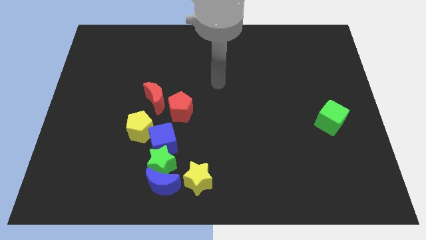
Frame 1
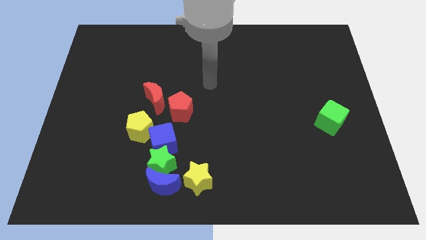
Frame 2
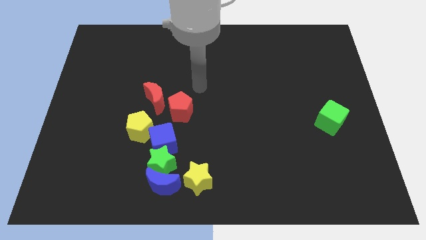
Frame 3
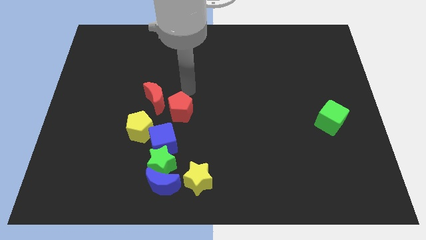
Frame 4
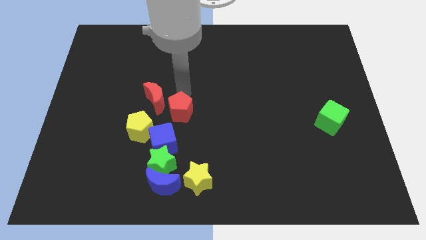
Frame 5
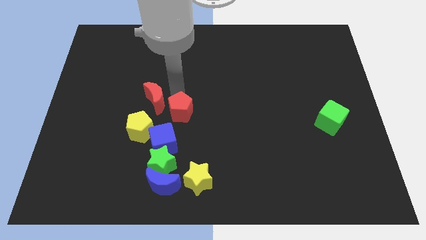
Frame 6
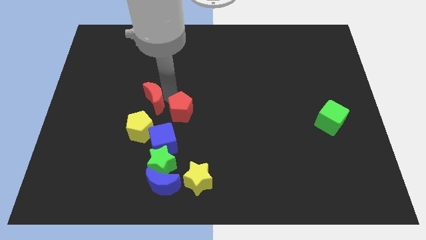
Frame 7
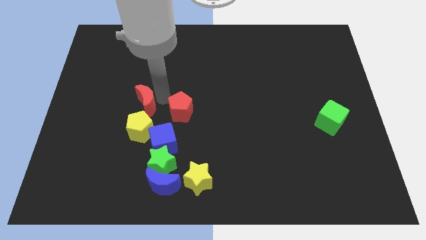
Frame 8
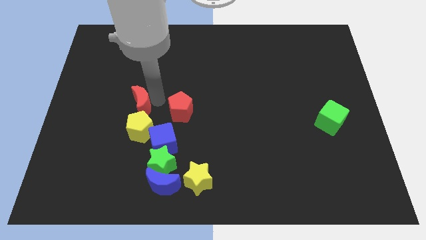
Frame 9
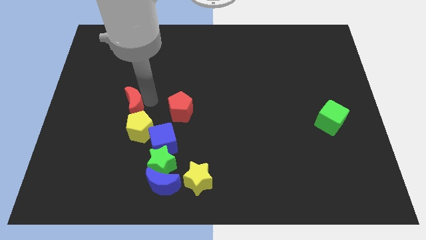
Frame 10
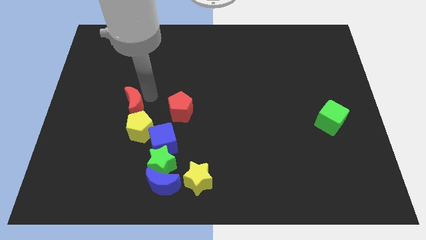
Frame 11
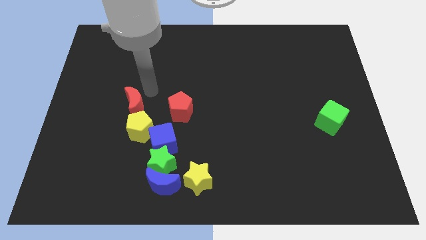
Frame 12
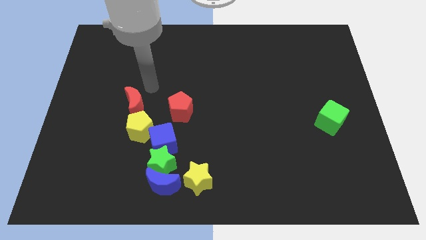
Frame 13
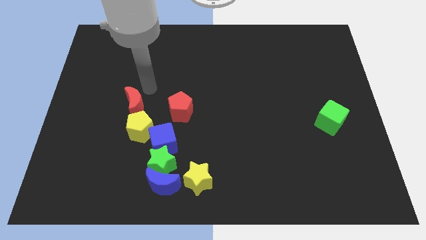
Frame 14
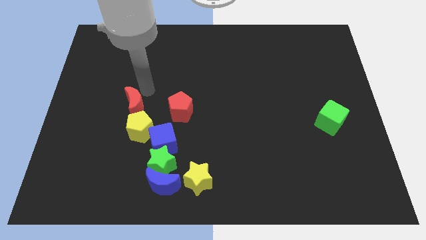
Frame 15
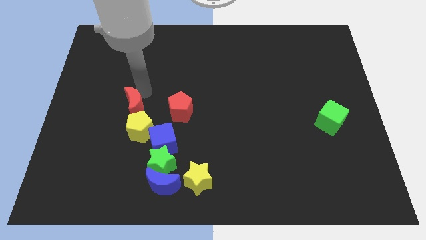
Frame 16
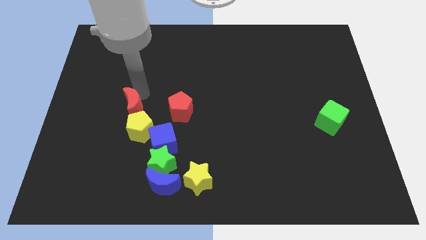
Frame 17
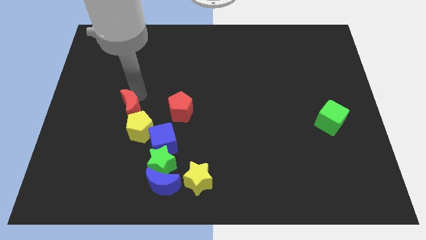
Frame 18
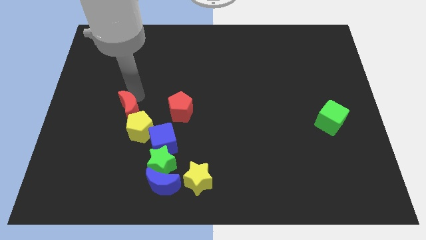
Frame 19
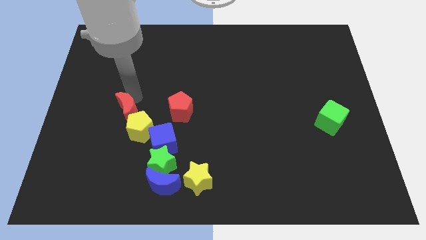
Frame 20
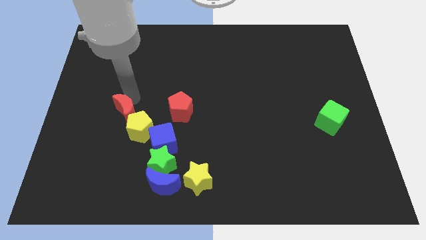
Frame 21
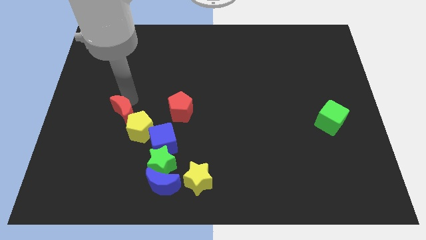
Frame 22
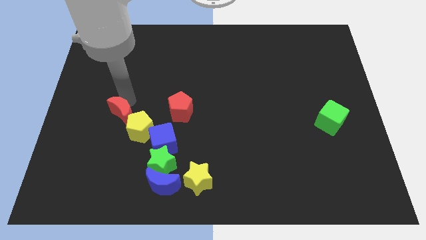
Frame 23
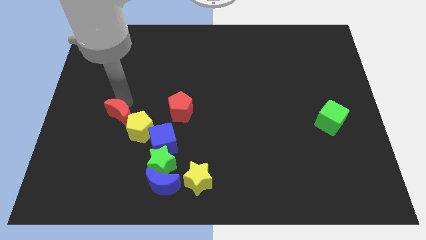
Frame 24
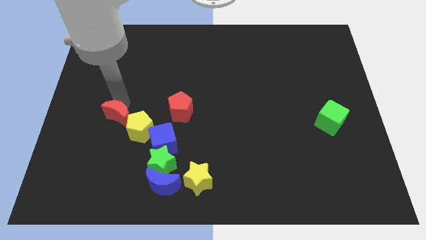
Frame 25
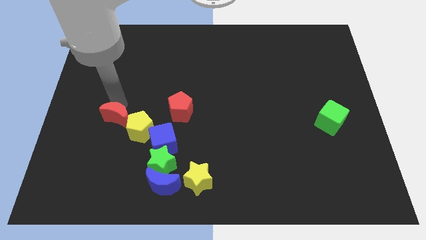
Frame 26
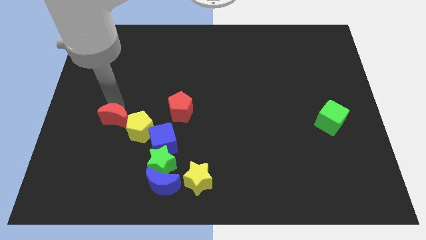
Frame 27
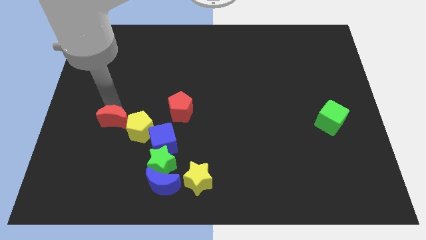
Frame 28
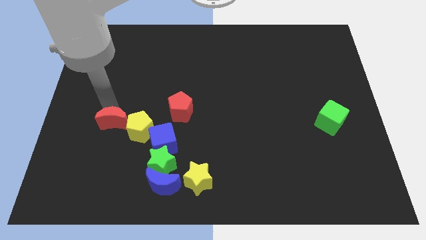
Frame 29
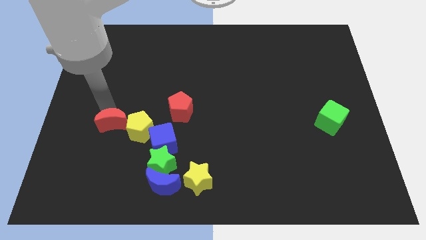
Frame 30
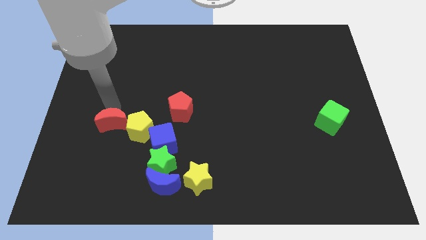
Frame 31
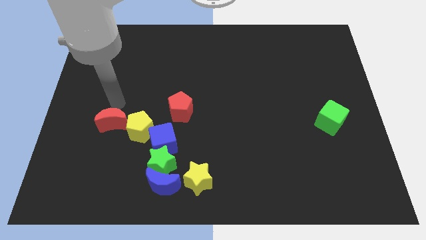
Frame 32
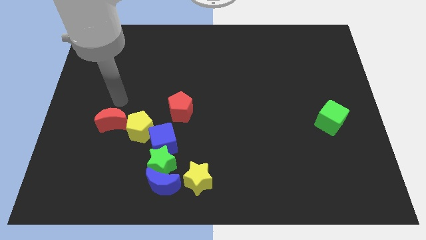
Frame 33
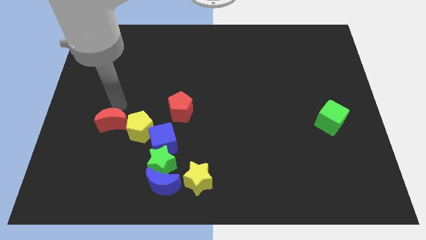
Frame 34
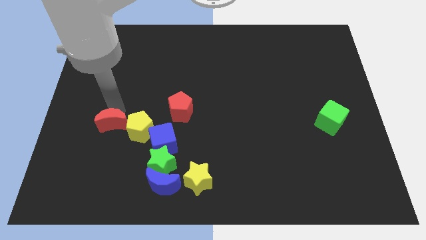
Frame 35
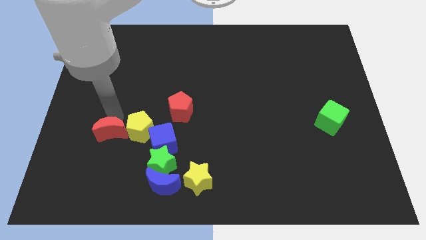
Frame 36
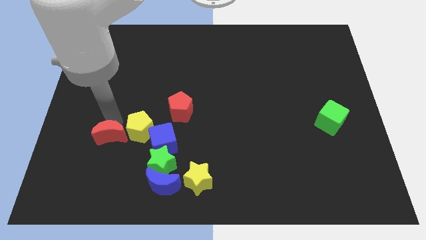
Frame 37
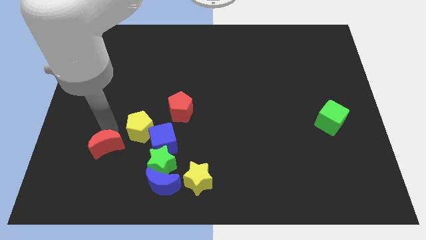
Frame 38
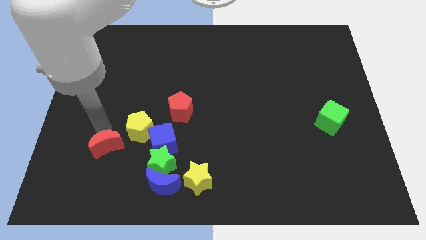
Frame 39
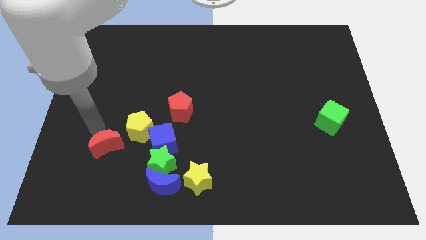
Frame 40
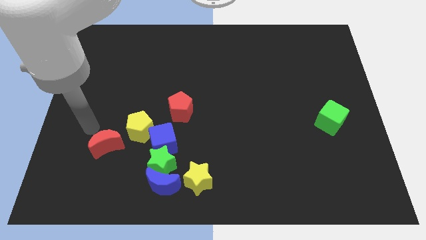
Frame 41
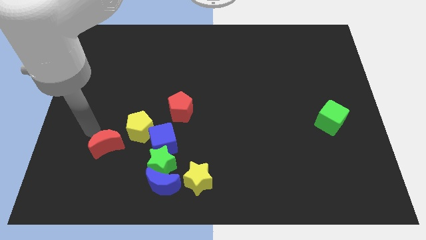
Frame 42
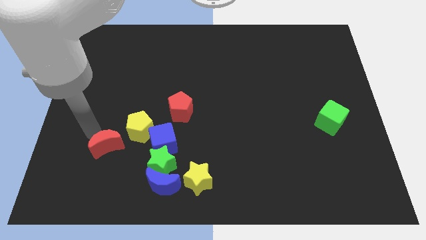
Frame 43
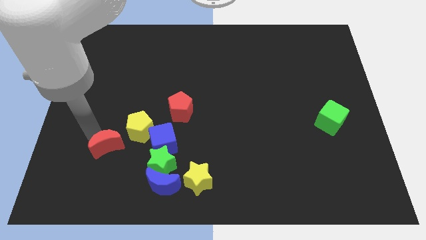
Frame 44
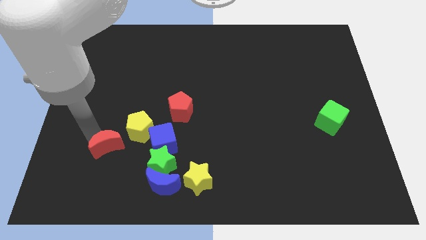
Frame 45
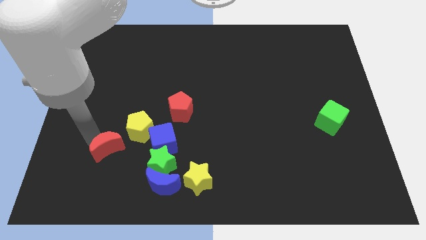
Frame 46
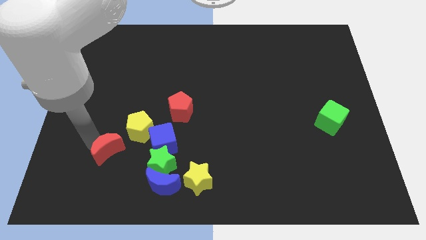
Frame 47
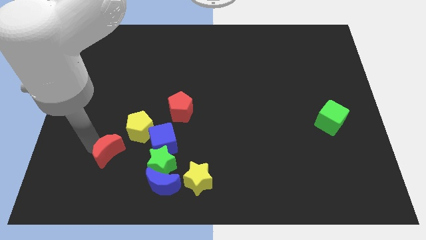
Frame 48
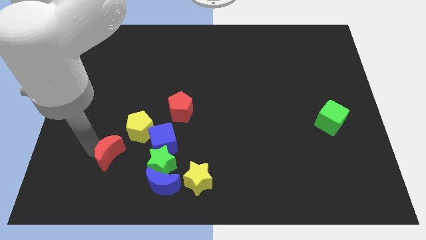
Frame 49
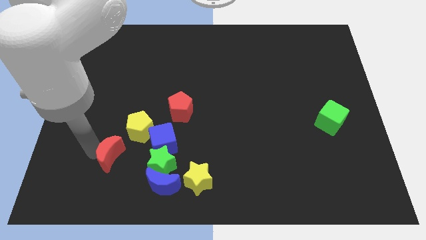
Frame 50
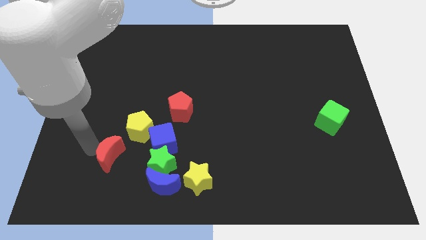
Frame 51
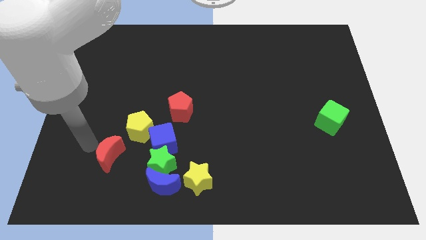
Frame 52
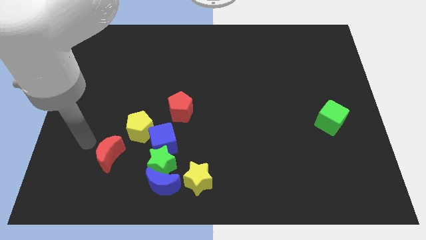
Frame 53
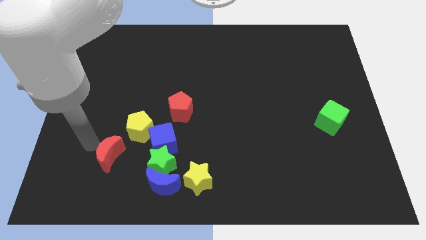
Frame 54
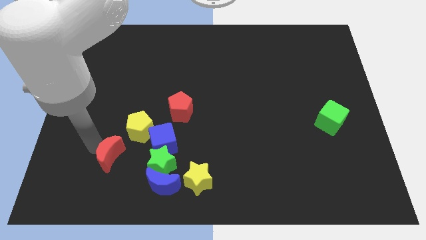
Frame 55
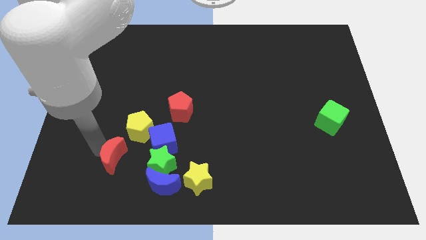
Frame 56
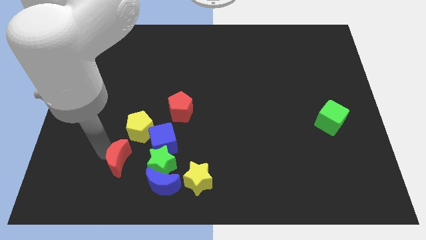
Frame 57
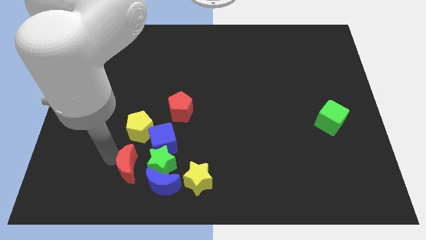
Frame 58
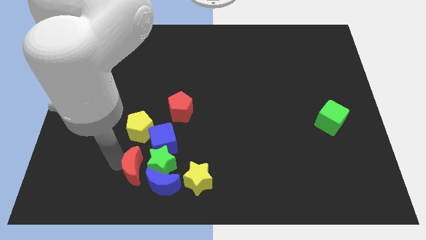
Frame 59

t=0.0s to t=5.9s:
move the red moon towards the green star

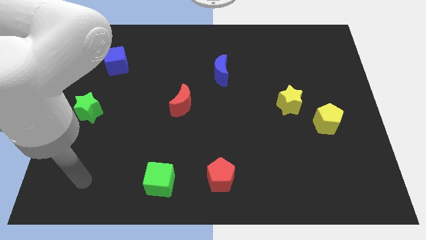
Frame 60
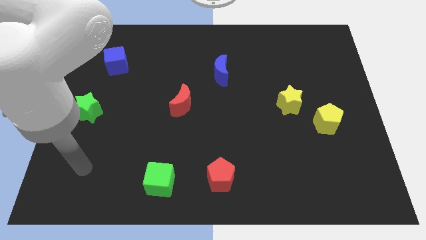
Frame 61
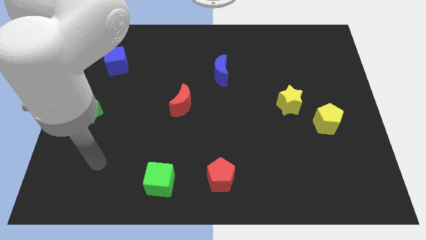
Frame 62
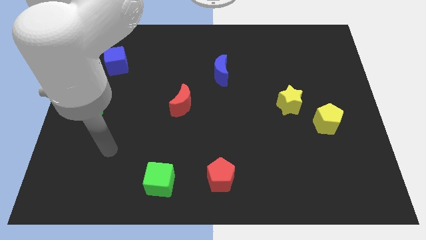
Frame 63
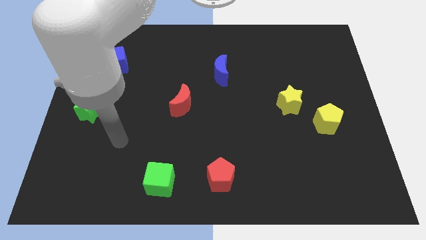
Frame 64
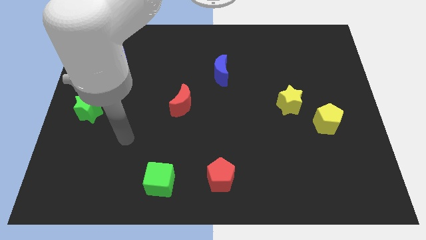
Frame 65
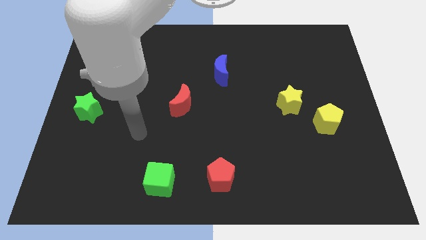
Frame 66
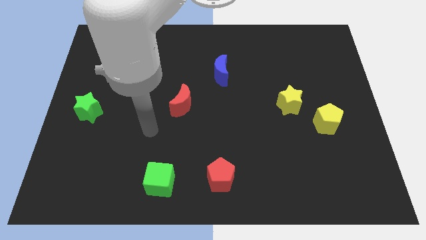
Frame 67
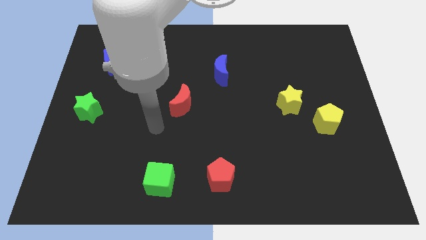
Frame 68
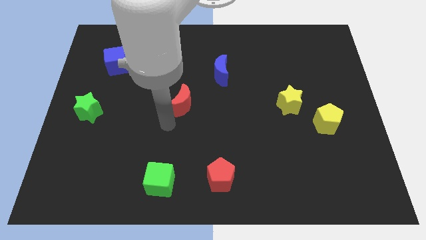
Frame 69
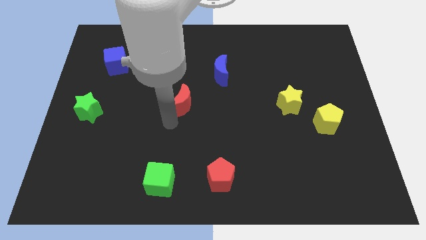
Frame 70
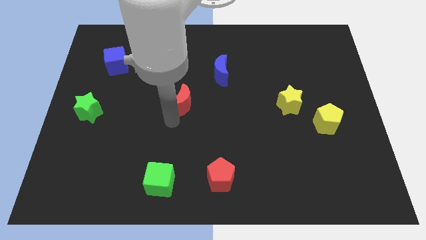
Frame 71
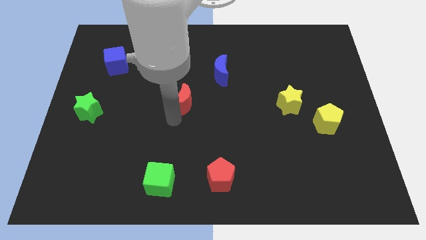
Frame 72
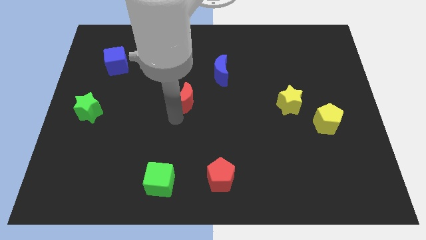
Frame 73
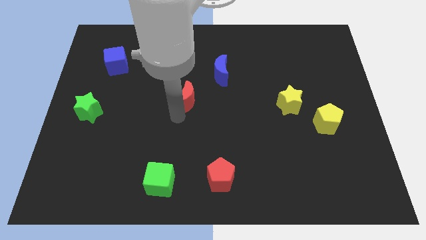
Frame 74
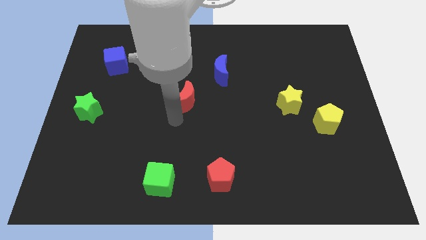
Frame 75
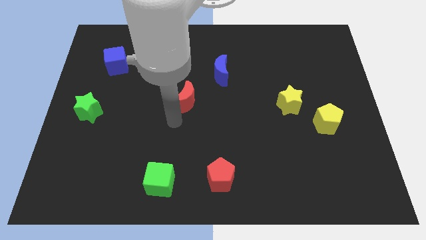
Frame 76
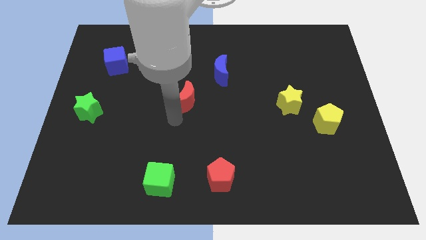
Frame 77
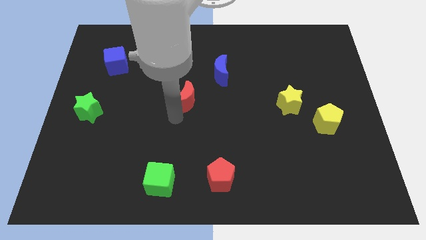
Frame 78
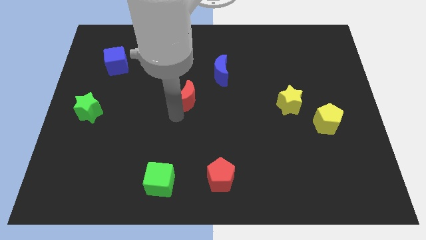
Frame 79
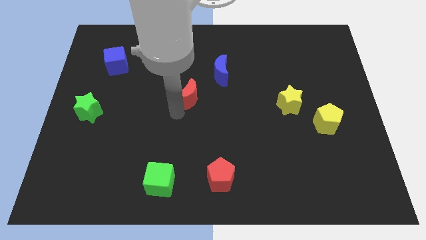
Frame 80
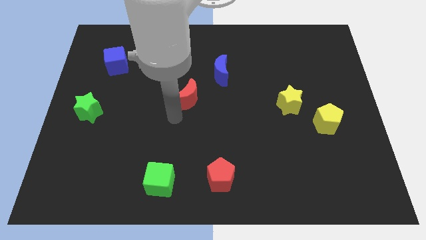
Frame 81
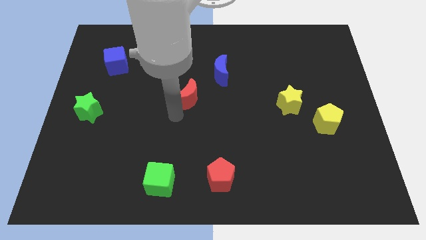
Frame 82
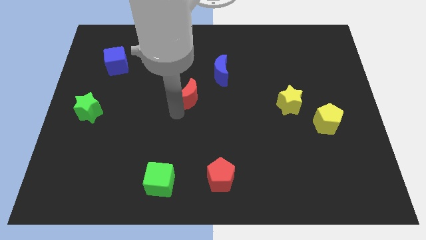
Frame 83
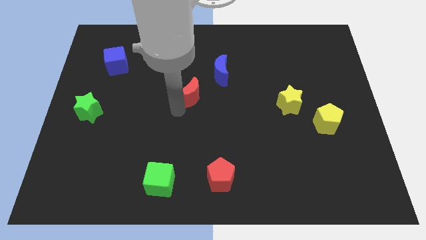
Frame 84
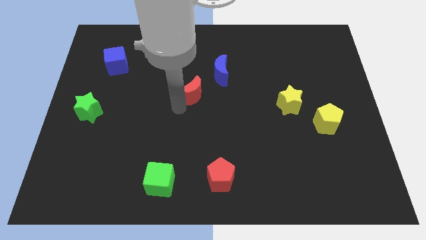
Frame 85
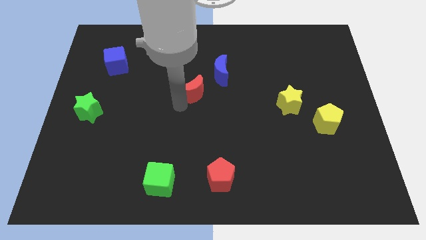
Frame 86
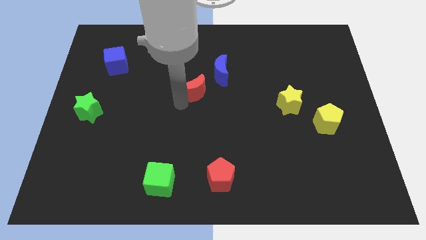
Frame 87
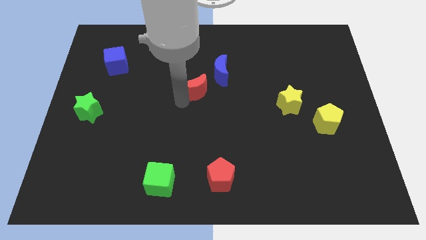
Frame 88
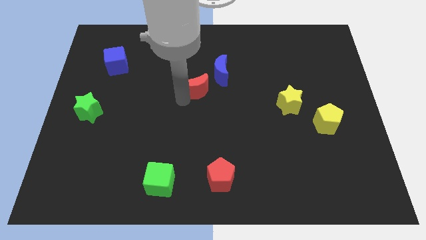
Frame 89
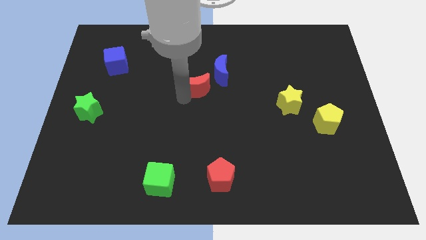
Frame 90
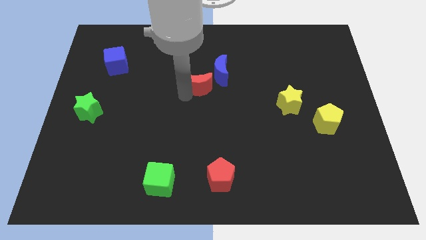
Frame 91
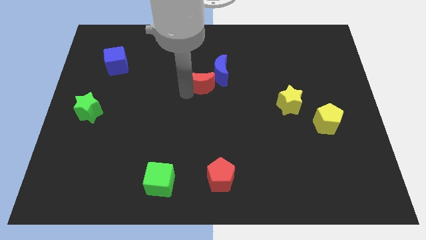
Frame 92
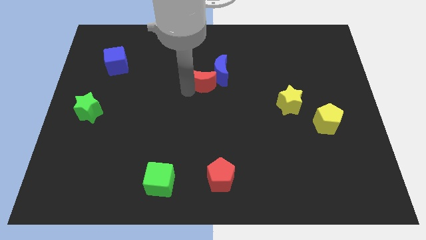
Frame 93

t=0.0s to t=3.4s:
slide the red moon to the blue moon
